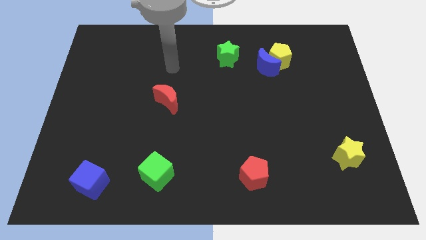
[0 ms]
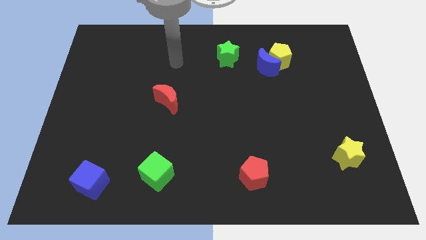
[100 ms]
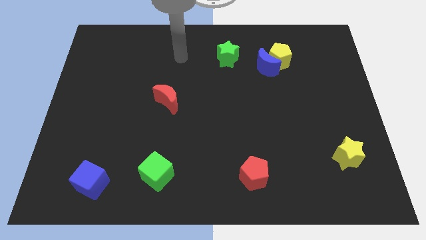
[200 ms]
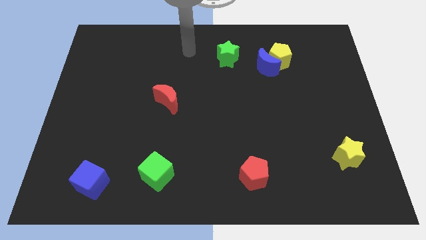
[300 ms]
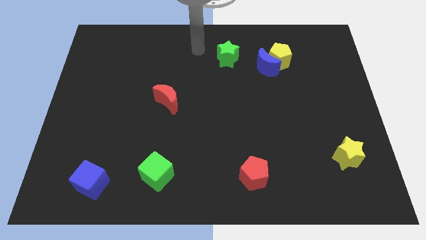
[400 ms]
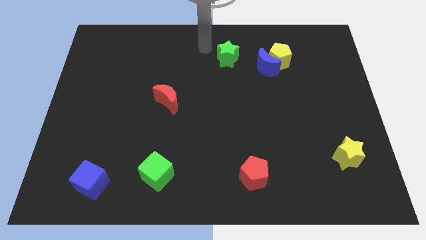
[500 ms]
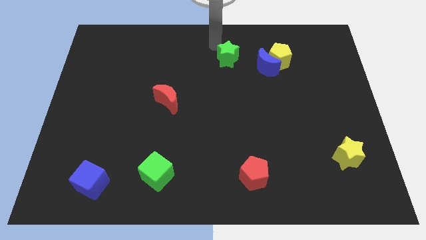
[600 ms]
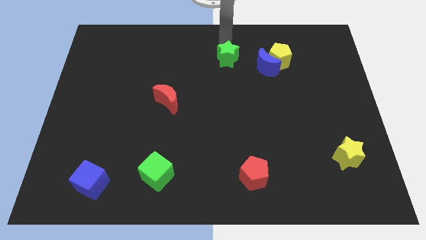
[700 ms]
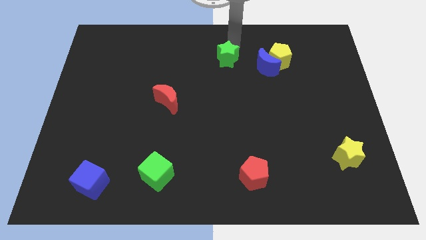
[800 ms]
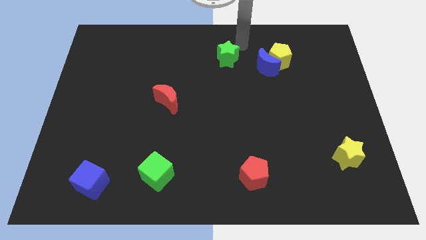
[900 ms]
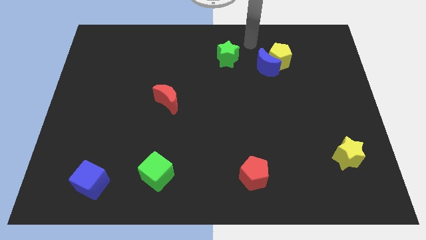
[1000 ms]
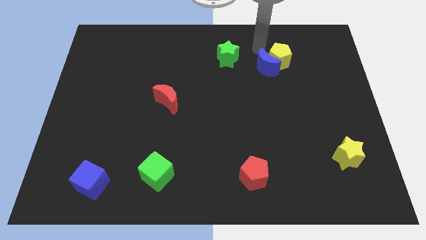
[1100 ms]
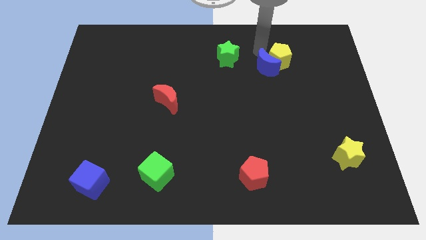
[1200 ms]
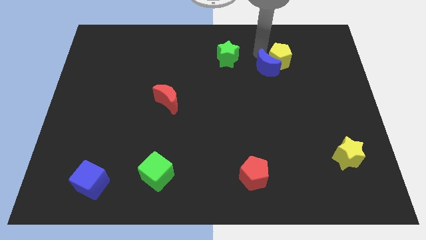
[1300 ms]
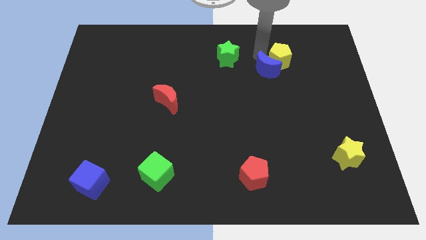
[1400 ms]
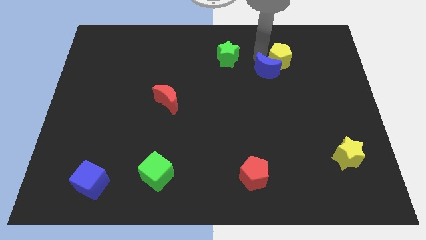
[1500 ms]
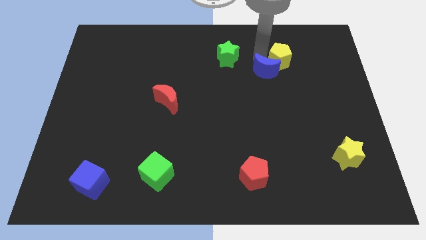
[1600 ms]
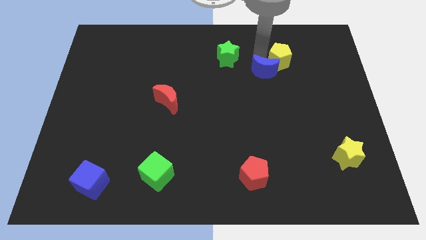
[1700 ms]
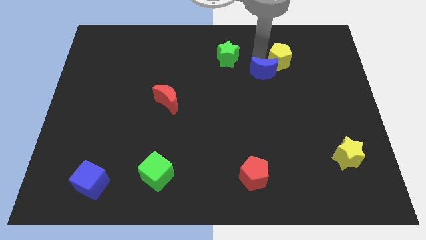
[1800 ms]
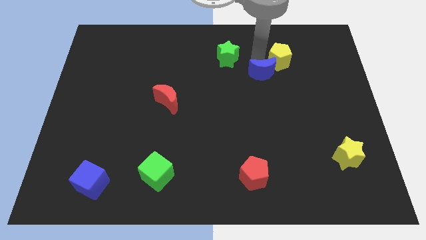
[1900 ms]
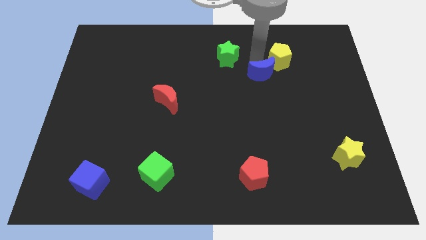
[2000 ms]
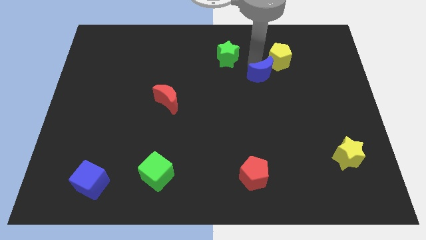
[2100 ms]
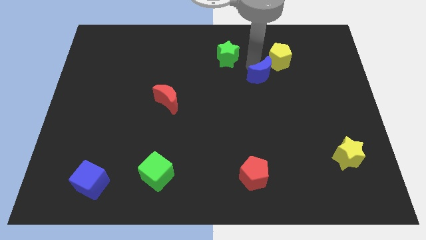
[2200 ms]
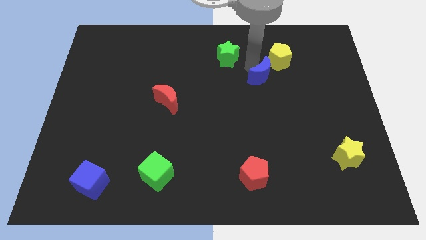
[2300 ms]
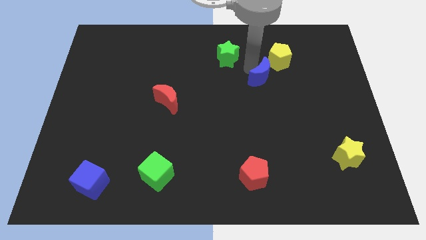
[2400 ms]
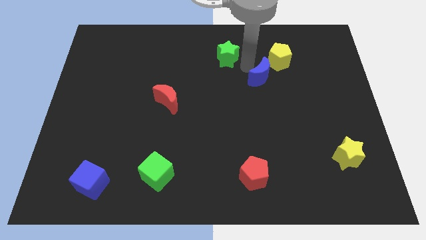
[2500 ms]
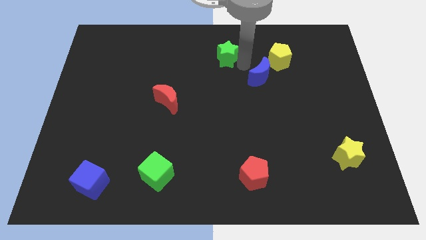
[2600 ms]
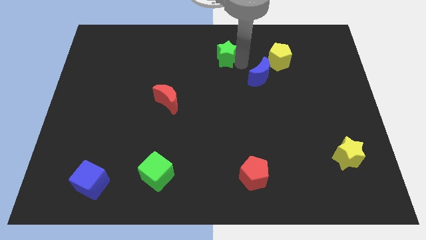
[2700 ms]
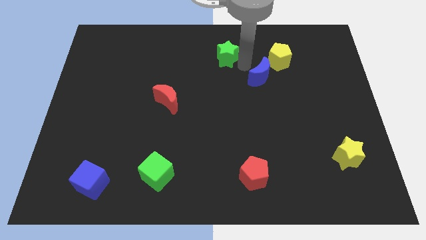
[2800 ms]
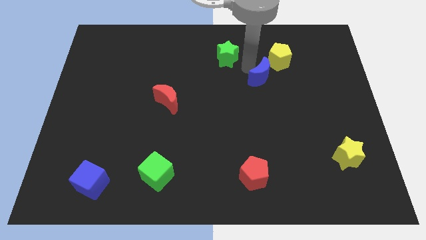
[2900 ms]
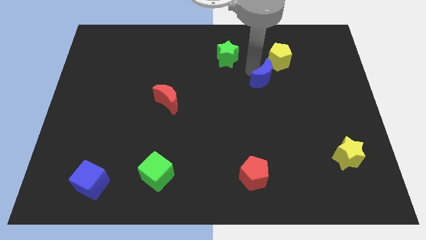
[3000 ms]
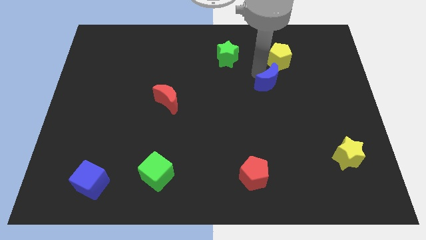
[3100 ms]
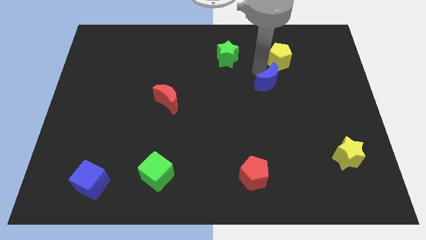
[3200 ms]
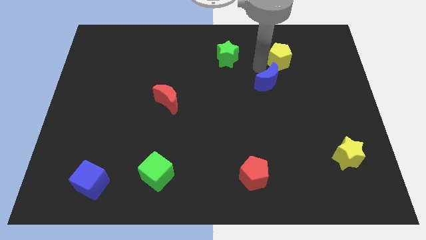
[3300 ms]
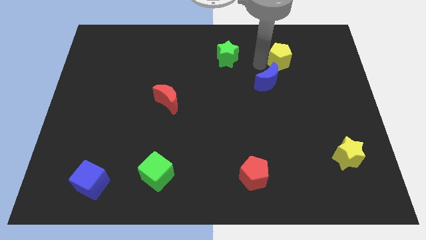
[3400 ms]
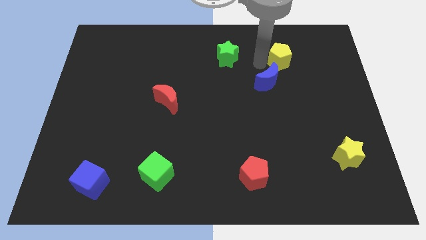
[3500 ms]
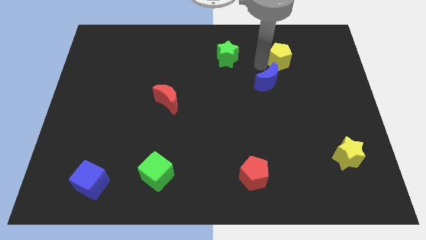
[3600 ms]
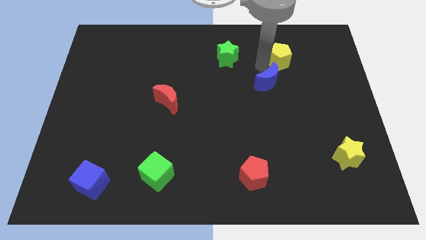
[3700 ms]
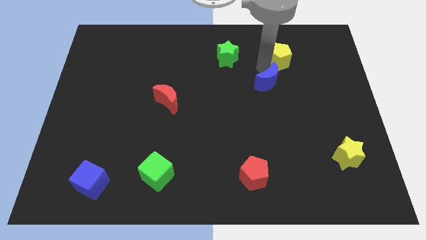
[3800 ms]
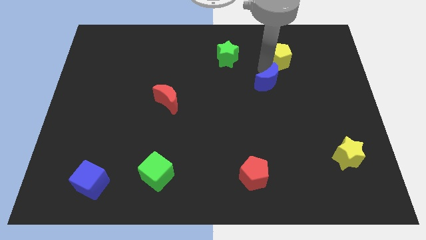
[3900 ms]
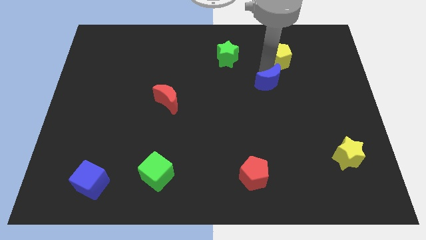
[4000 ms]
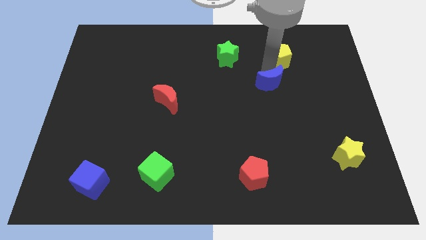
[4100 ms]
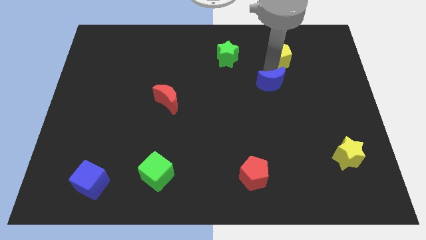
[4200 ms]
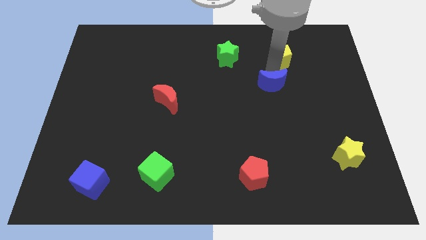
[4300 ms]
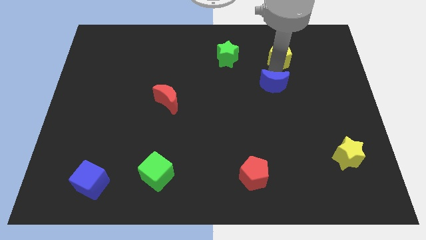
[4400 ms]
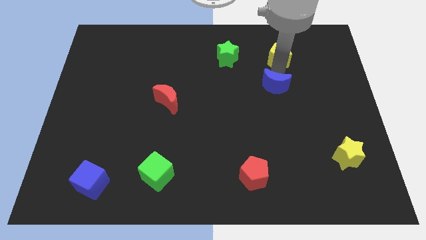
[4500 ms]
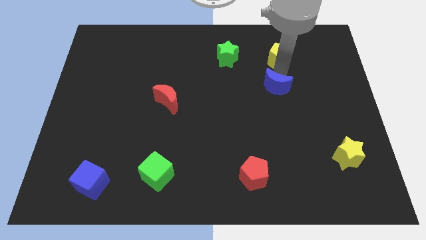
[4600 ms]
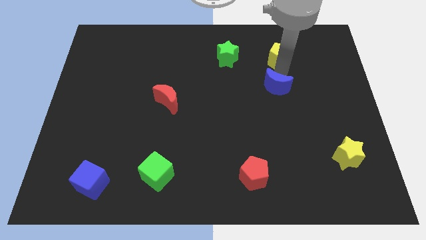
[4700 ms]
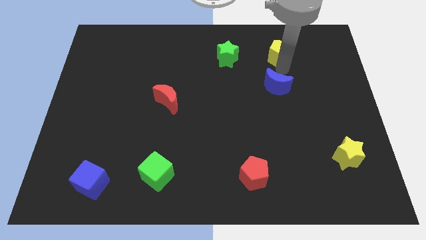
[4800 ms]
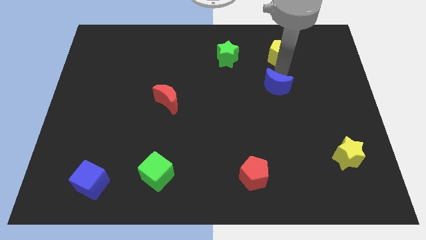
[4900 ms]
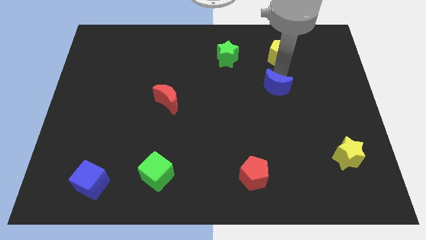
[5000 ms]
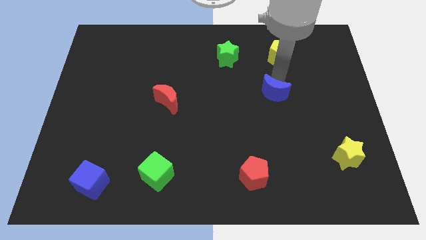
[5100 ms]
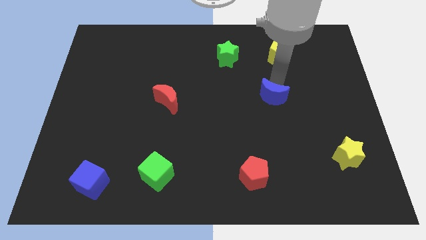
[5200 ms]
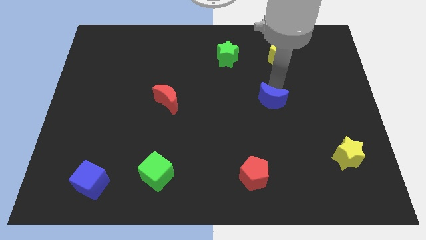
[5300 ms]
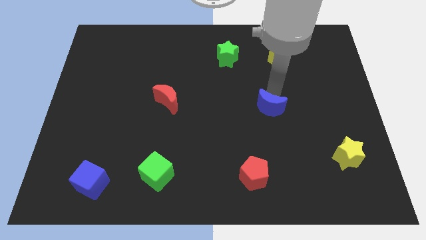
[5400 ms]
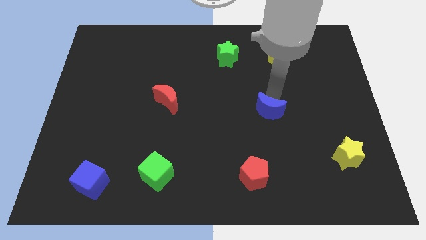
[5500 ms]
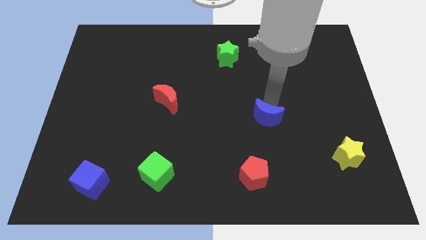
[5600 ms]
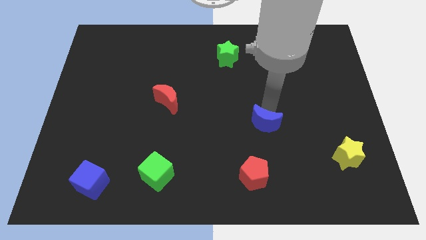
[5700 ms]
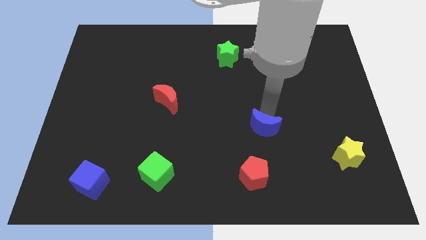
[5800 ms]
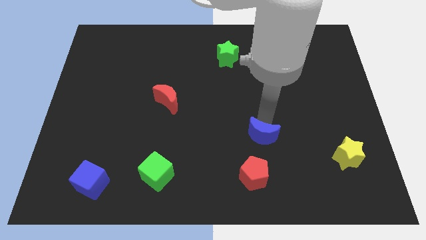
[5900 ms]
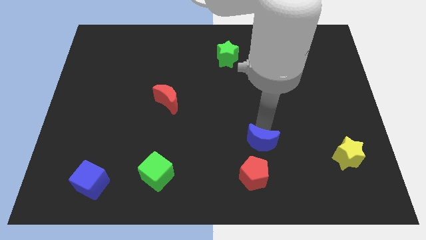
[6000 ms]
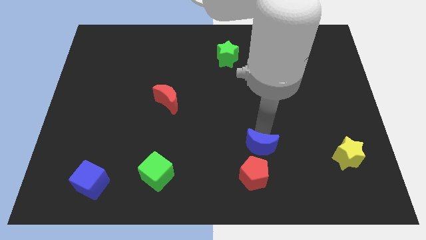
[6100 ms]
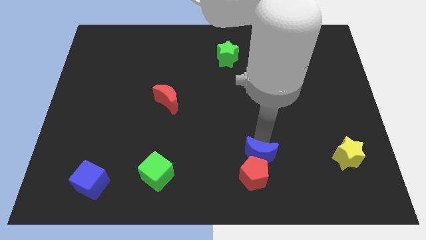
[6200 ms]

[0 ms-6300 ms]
put the blue moon next to the red pentagon

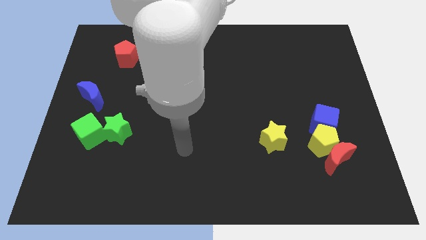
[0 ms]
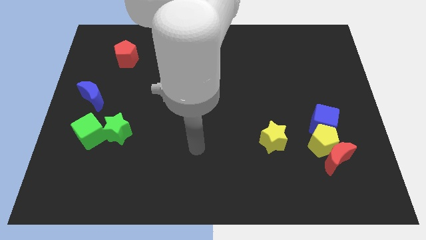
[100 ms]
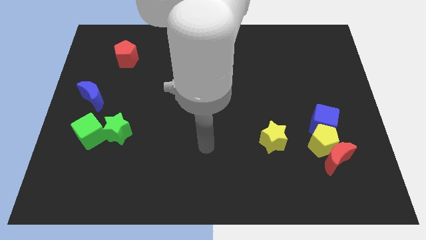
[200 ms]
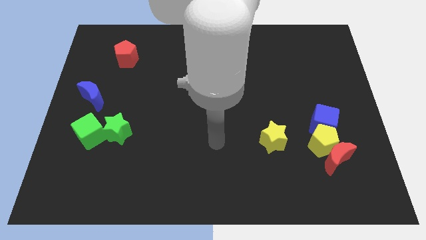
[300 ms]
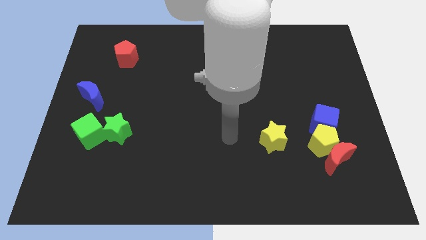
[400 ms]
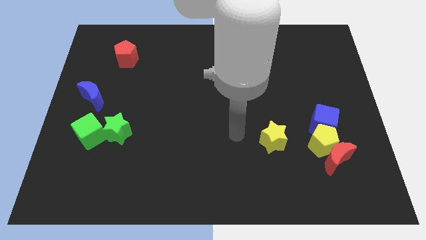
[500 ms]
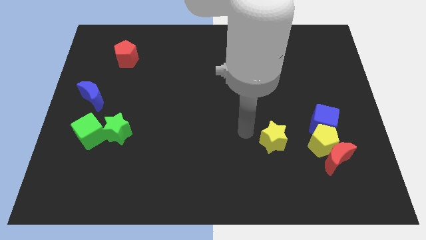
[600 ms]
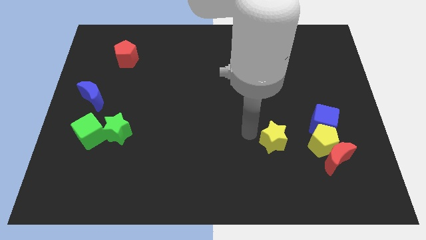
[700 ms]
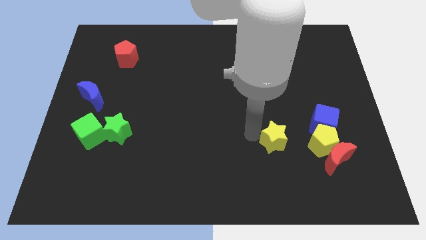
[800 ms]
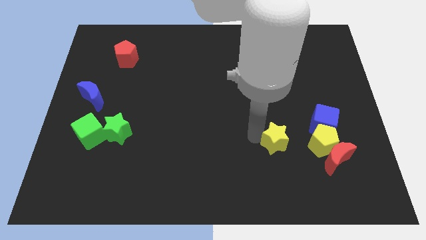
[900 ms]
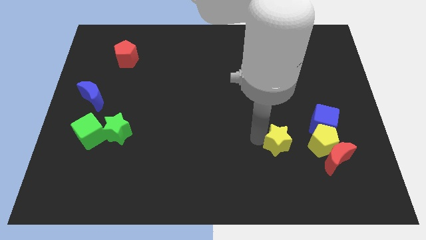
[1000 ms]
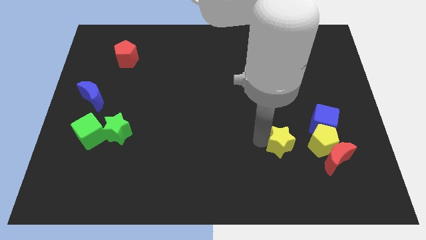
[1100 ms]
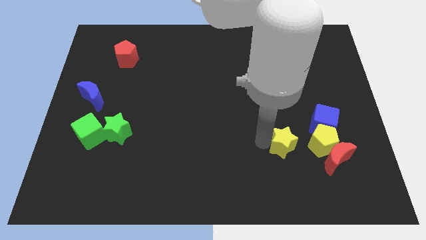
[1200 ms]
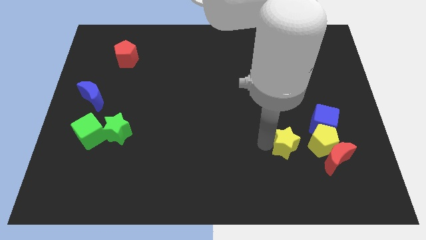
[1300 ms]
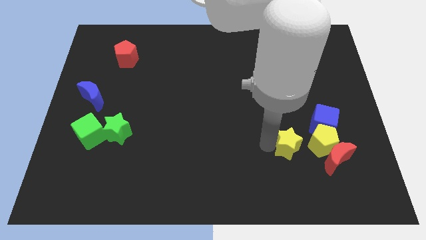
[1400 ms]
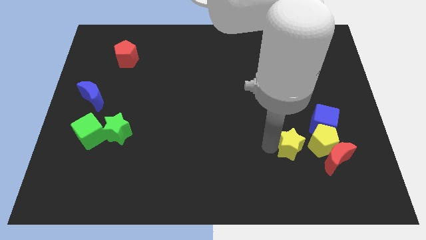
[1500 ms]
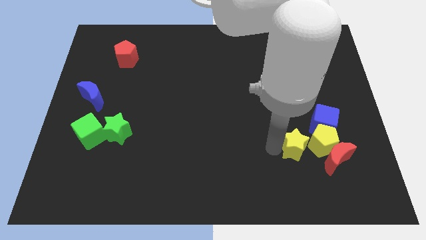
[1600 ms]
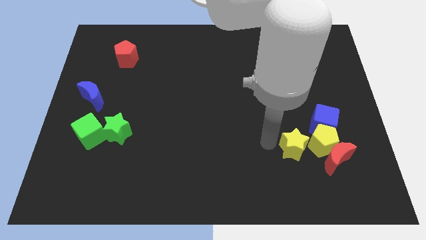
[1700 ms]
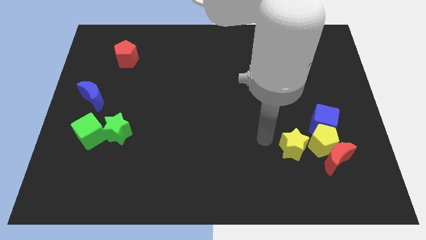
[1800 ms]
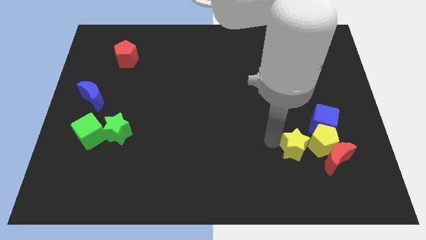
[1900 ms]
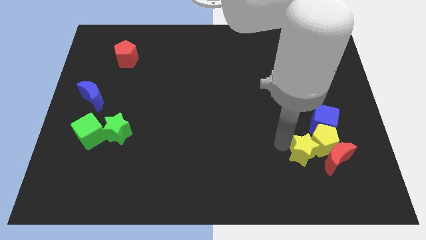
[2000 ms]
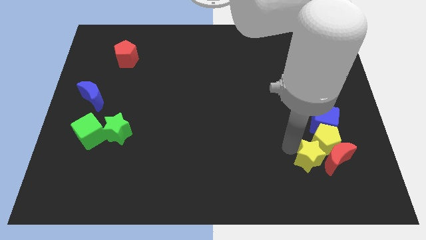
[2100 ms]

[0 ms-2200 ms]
move the yellow star to the red moon
